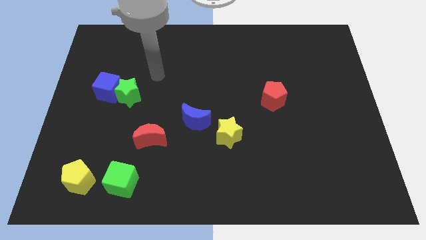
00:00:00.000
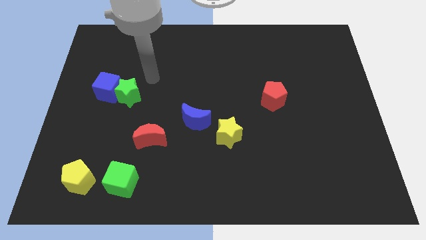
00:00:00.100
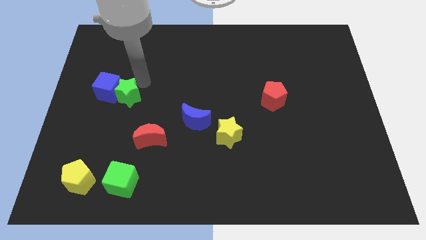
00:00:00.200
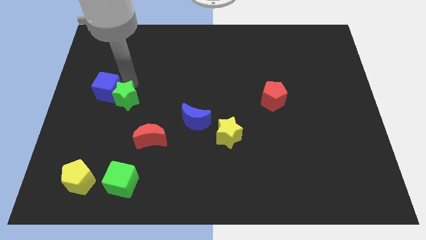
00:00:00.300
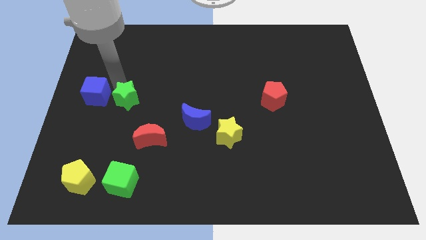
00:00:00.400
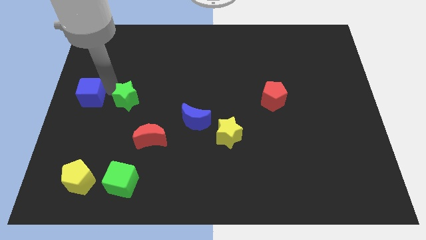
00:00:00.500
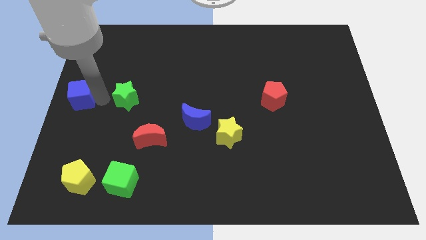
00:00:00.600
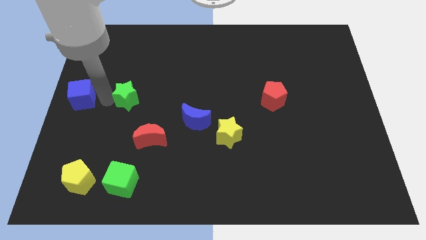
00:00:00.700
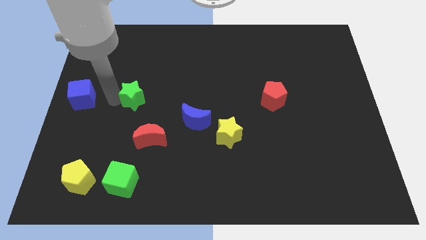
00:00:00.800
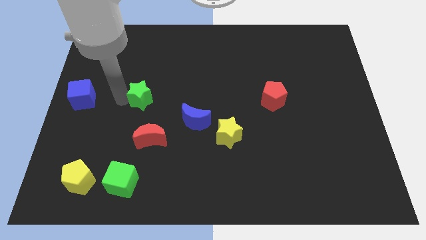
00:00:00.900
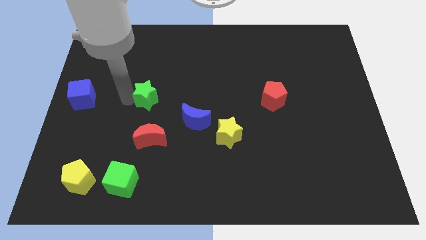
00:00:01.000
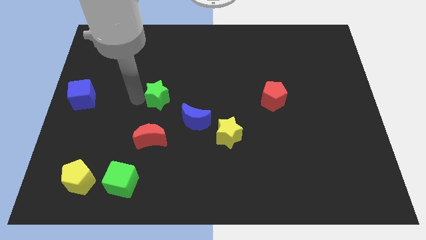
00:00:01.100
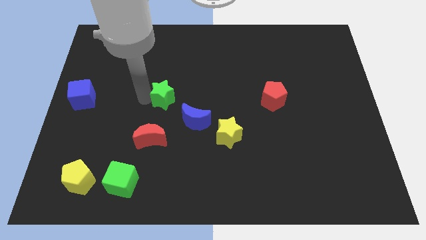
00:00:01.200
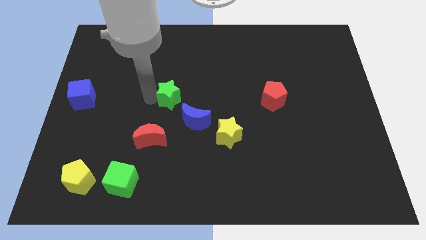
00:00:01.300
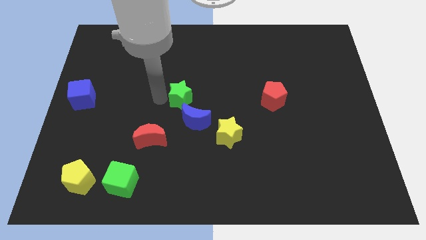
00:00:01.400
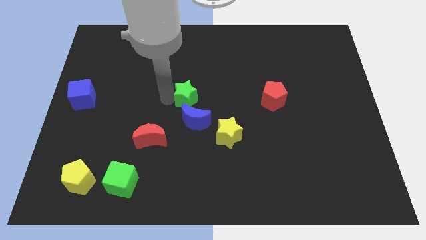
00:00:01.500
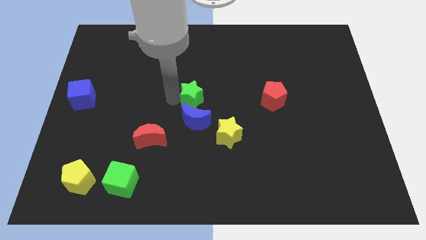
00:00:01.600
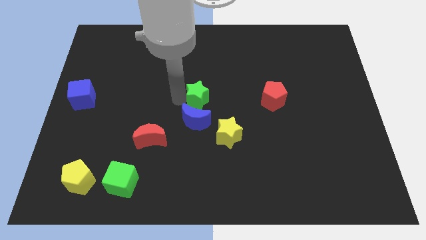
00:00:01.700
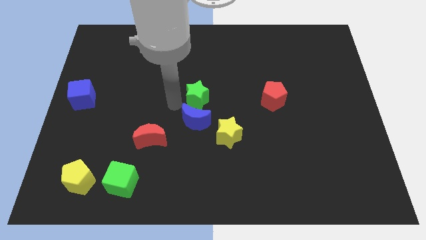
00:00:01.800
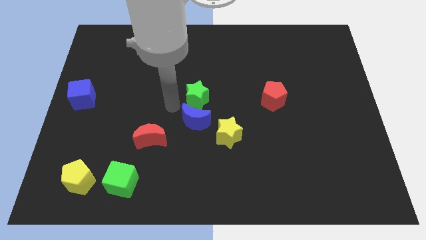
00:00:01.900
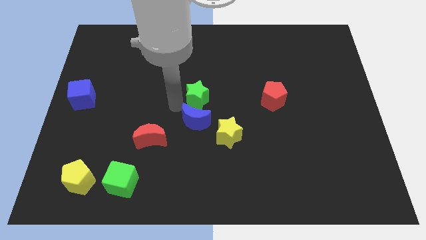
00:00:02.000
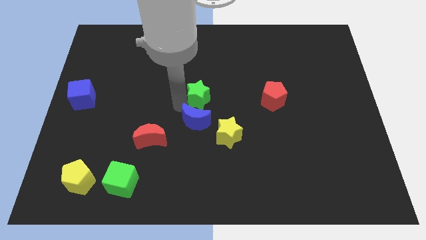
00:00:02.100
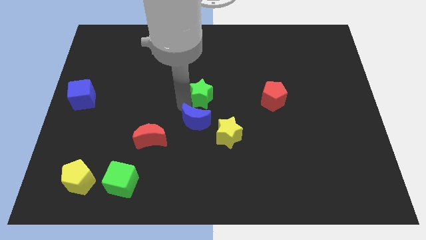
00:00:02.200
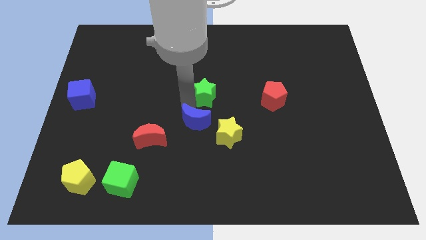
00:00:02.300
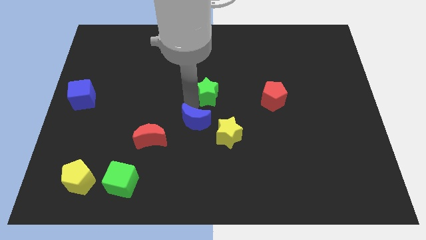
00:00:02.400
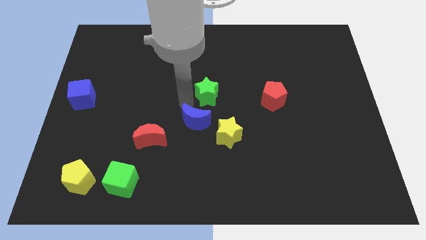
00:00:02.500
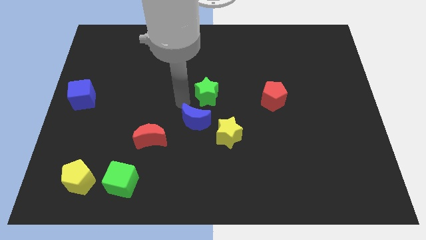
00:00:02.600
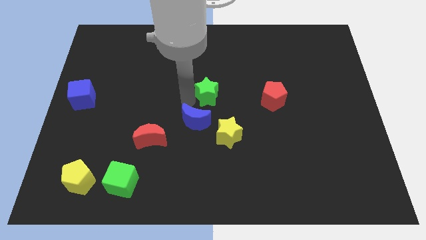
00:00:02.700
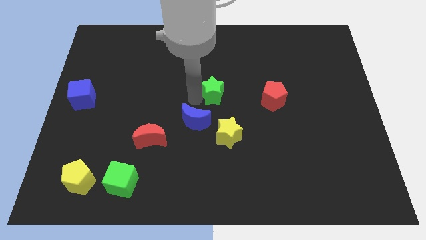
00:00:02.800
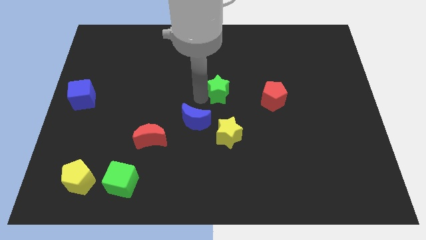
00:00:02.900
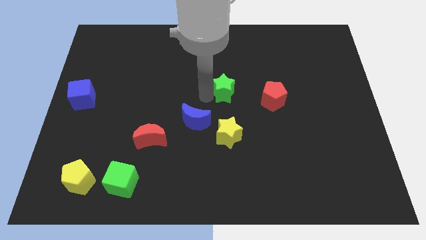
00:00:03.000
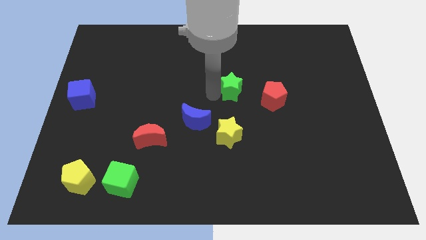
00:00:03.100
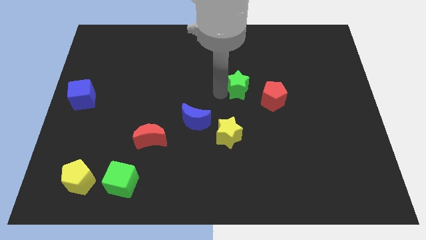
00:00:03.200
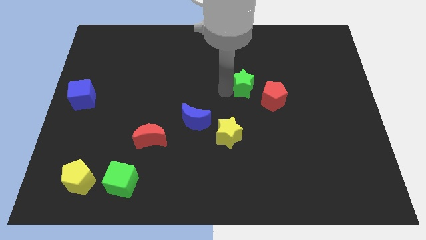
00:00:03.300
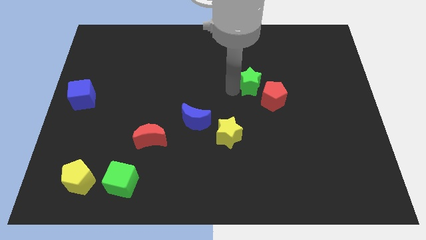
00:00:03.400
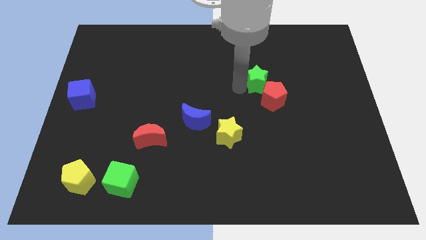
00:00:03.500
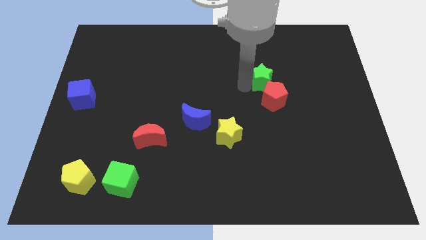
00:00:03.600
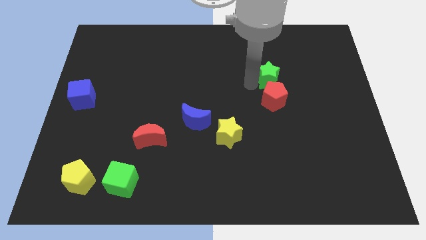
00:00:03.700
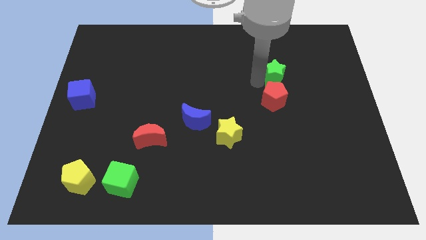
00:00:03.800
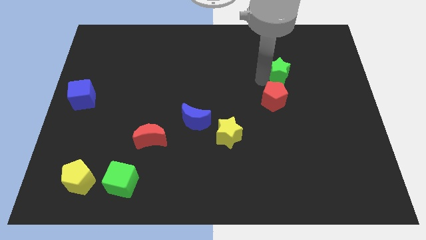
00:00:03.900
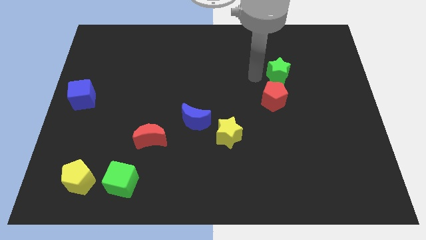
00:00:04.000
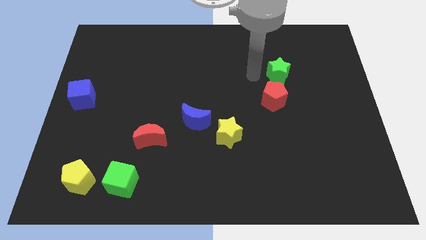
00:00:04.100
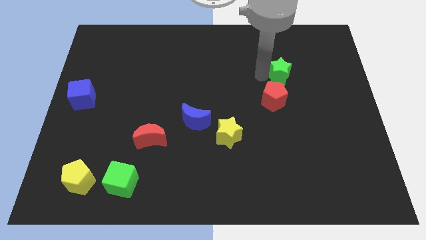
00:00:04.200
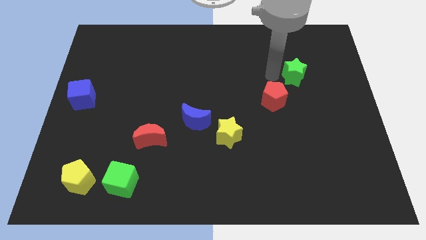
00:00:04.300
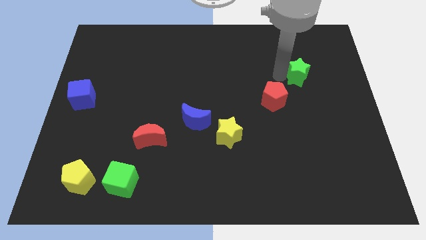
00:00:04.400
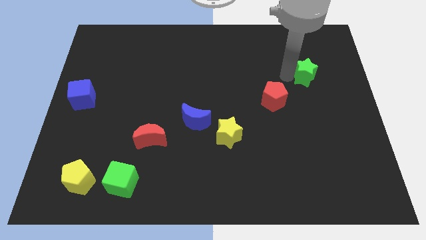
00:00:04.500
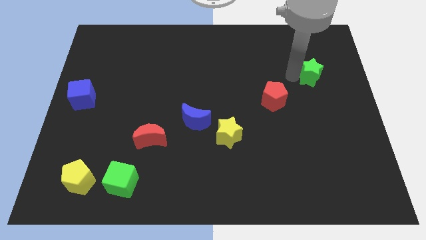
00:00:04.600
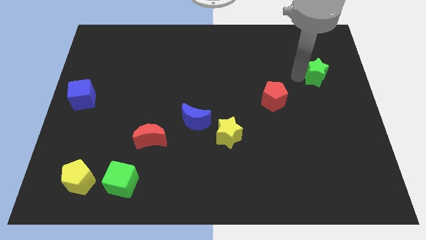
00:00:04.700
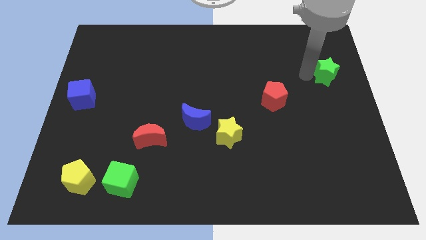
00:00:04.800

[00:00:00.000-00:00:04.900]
move the green star to the center right

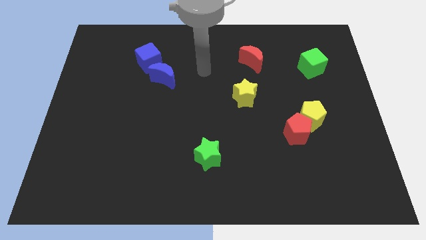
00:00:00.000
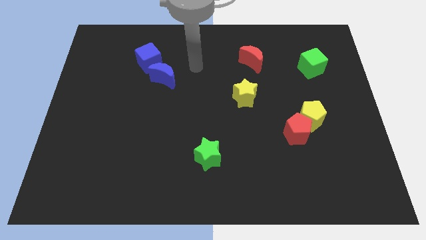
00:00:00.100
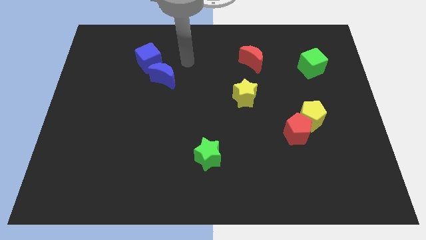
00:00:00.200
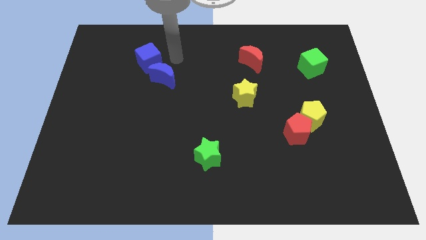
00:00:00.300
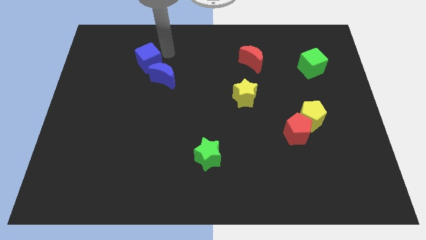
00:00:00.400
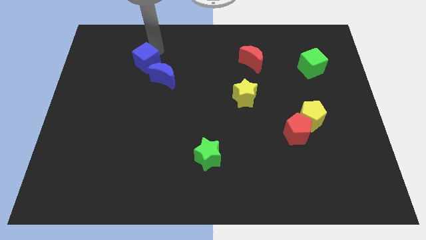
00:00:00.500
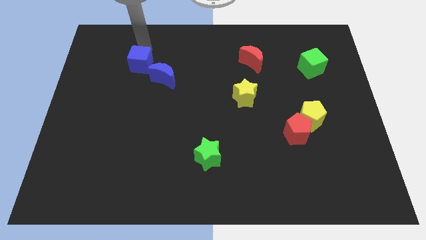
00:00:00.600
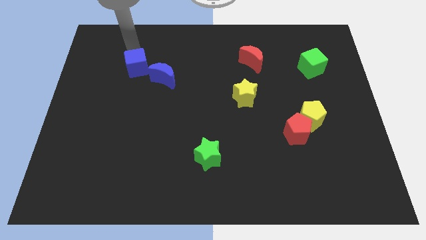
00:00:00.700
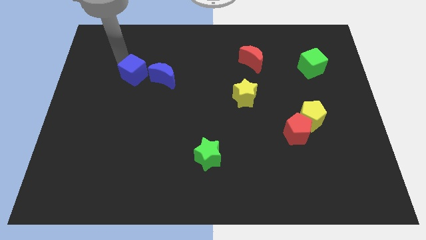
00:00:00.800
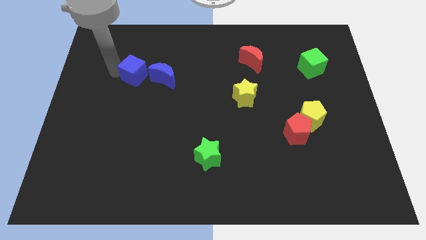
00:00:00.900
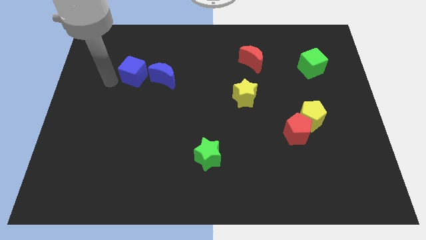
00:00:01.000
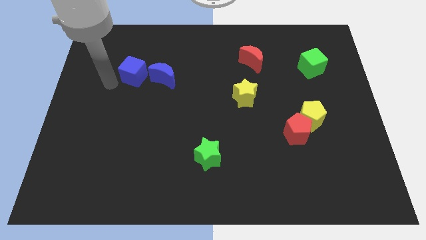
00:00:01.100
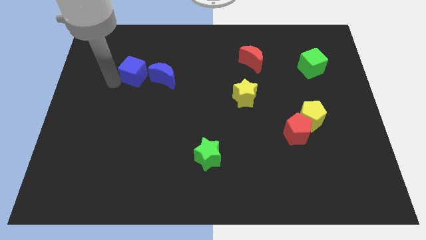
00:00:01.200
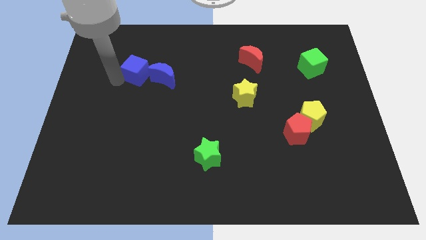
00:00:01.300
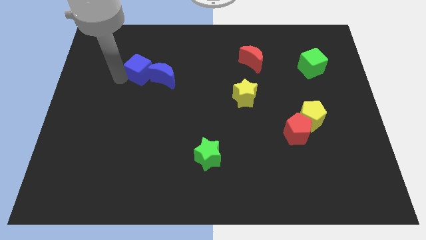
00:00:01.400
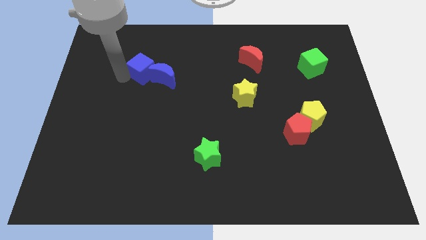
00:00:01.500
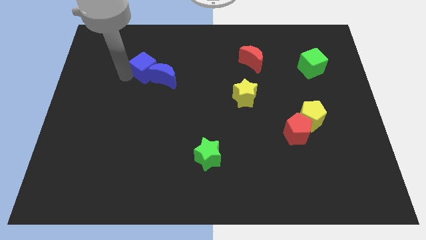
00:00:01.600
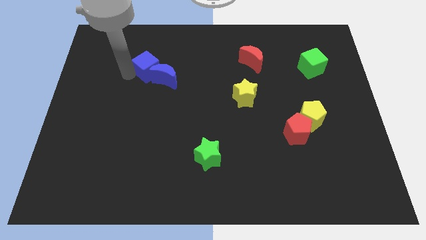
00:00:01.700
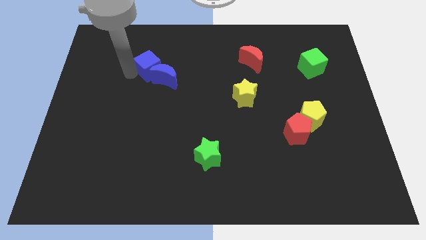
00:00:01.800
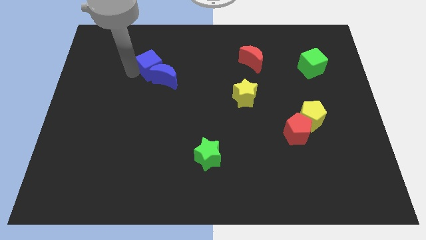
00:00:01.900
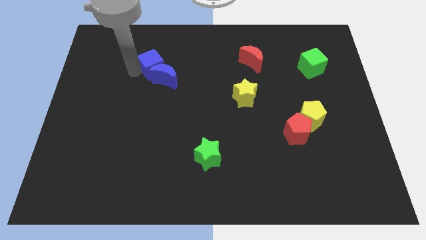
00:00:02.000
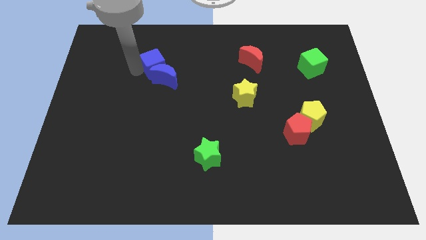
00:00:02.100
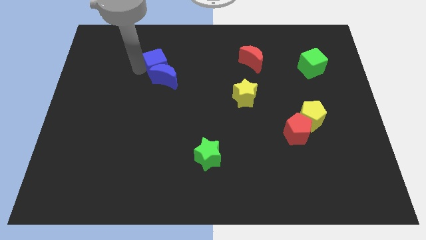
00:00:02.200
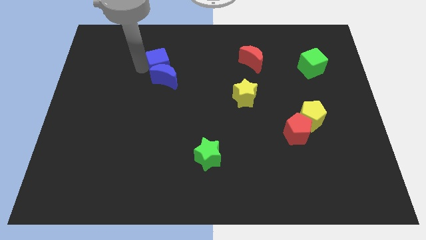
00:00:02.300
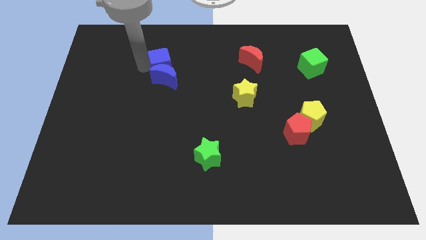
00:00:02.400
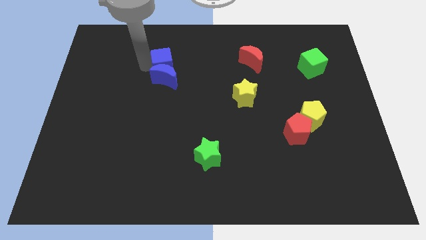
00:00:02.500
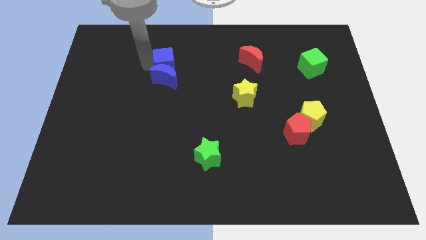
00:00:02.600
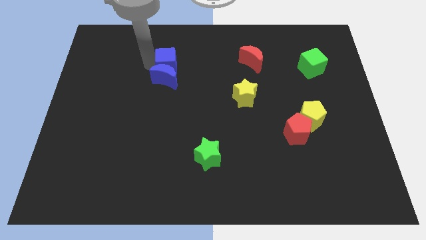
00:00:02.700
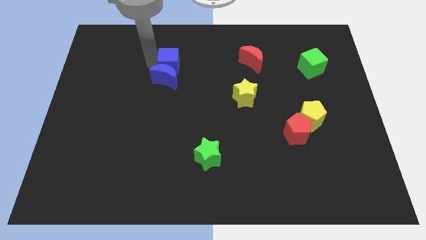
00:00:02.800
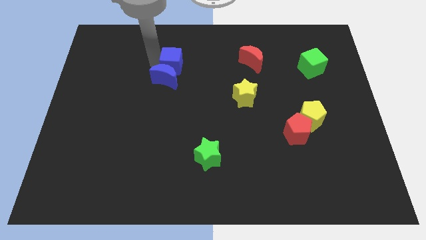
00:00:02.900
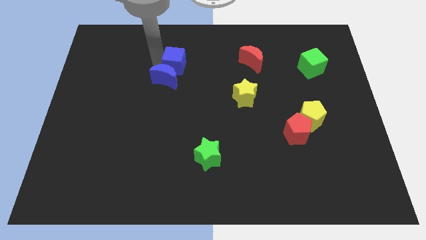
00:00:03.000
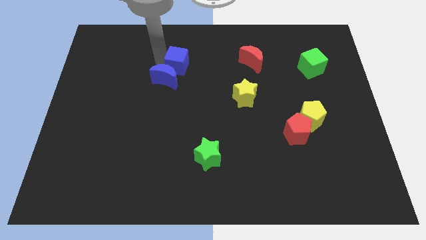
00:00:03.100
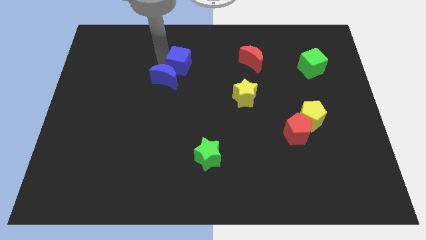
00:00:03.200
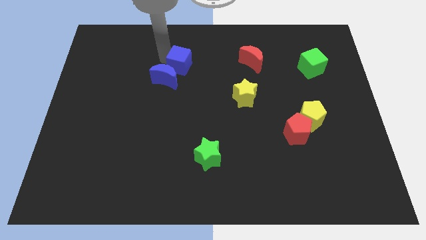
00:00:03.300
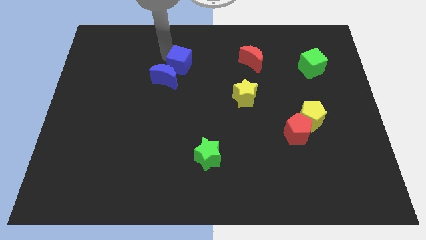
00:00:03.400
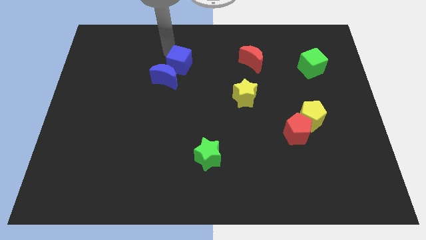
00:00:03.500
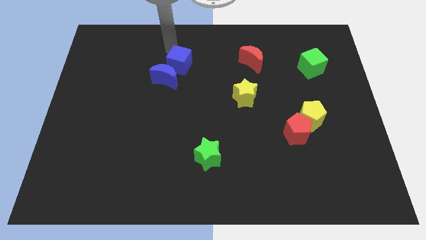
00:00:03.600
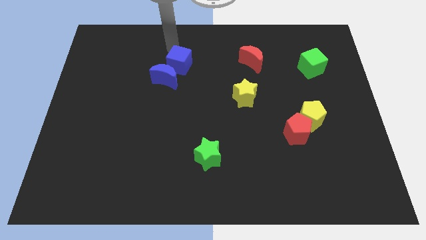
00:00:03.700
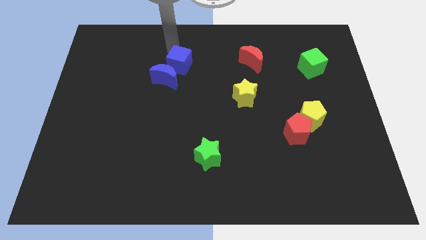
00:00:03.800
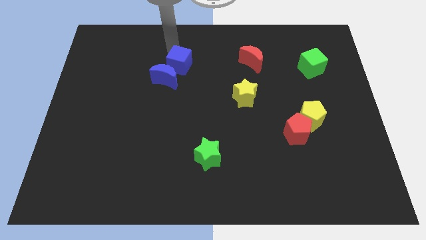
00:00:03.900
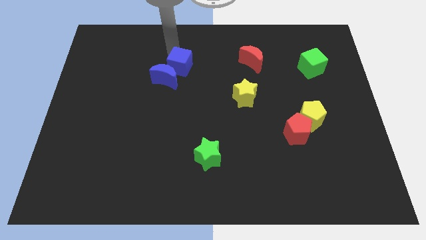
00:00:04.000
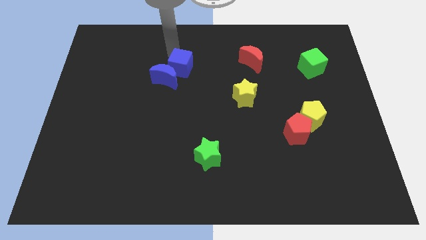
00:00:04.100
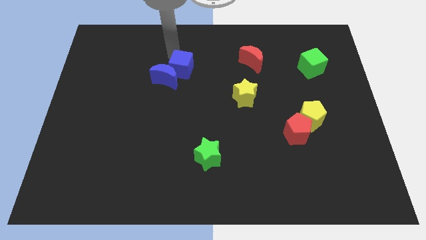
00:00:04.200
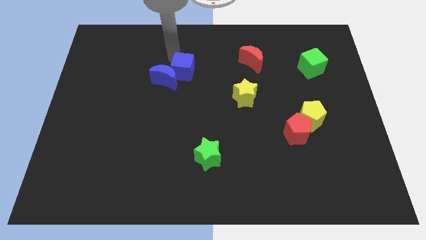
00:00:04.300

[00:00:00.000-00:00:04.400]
slide the blue cube to the middle
